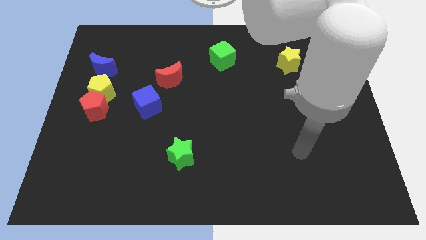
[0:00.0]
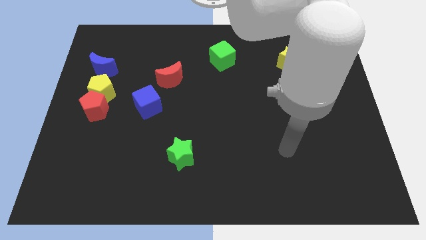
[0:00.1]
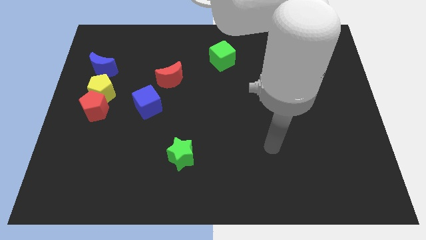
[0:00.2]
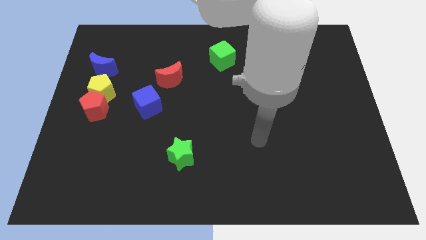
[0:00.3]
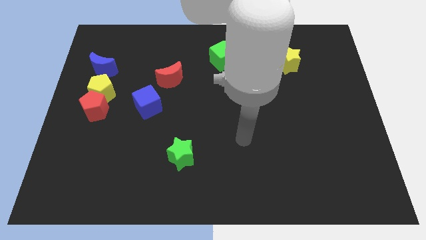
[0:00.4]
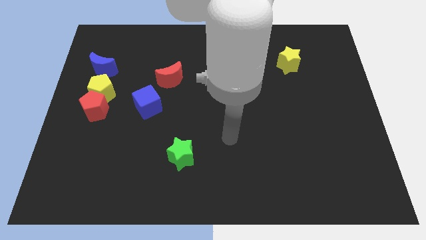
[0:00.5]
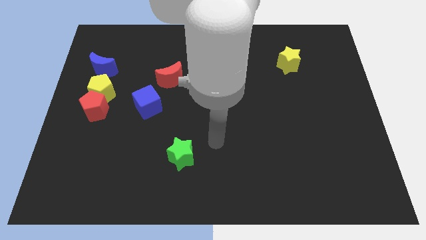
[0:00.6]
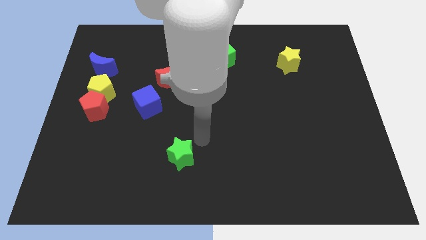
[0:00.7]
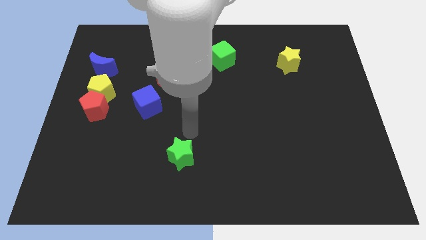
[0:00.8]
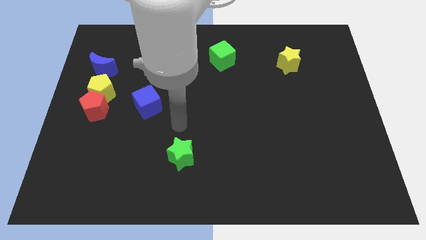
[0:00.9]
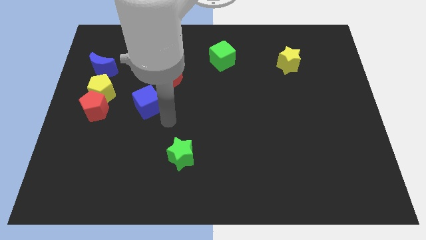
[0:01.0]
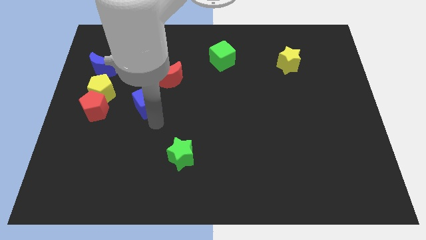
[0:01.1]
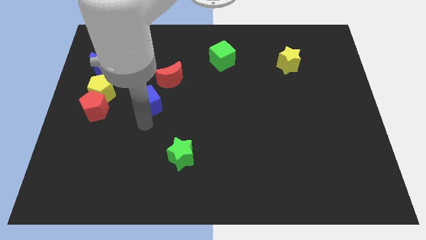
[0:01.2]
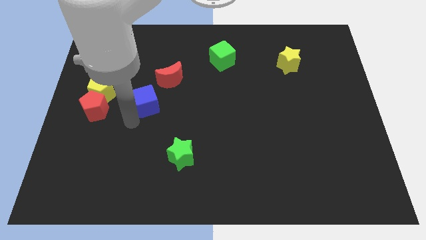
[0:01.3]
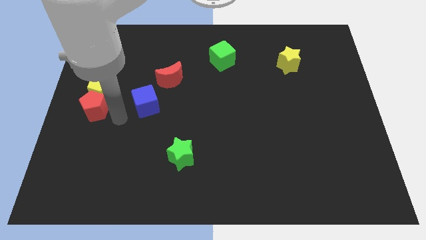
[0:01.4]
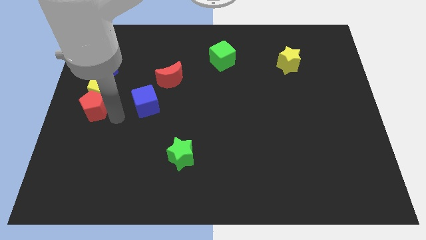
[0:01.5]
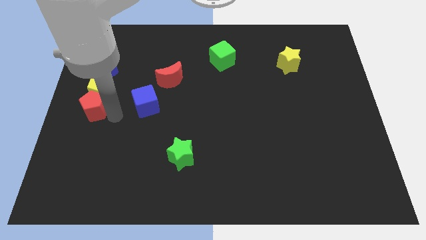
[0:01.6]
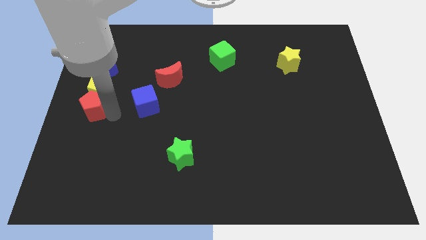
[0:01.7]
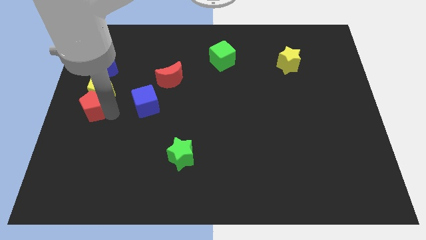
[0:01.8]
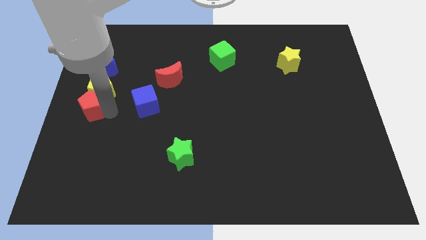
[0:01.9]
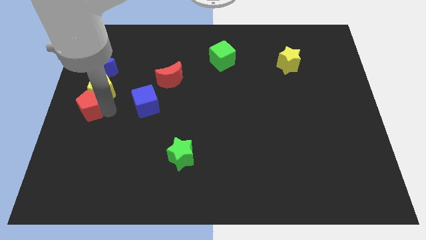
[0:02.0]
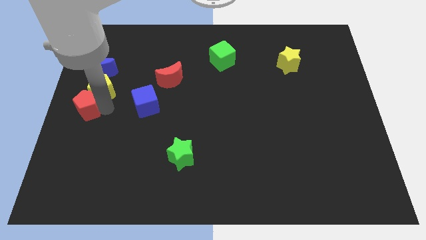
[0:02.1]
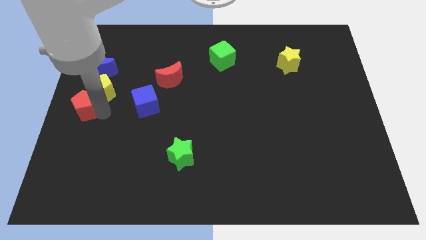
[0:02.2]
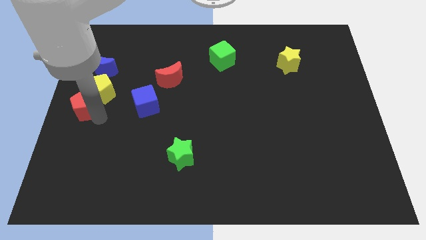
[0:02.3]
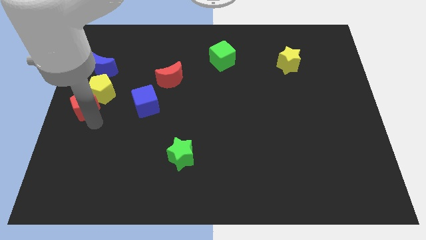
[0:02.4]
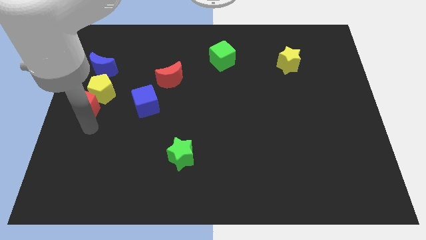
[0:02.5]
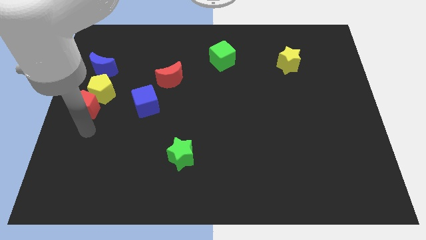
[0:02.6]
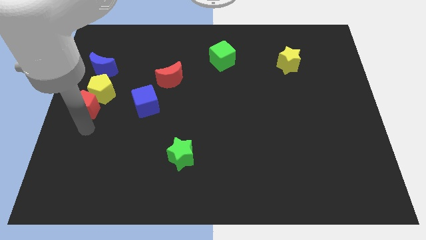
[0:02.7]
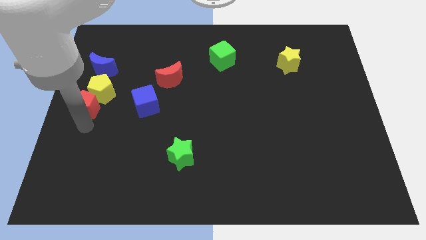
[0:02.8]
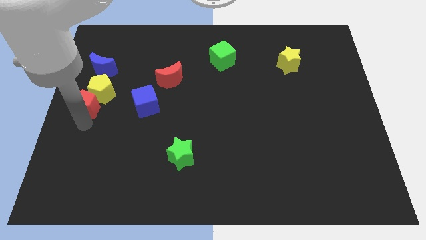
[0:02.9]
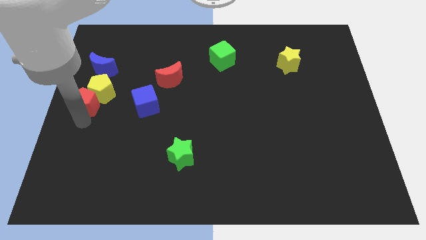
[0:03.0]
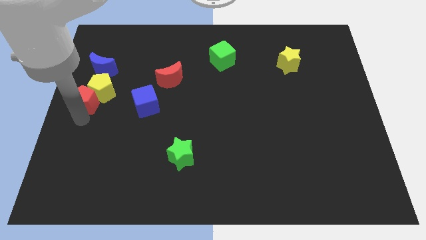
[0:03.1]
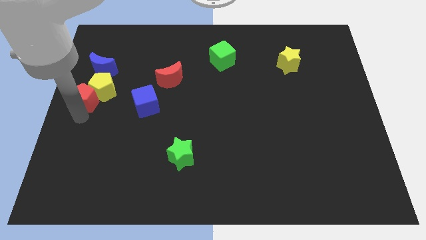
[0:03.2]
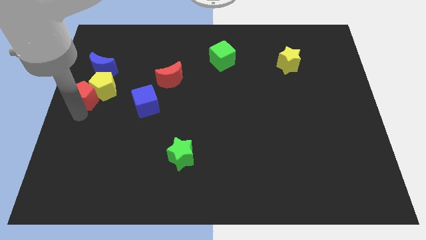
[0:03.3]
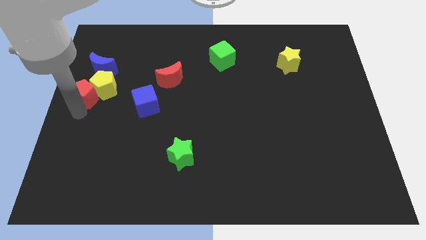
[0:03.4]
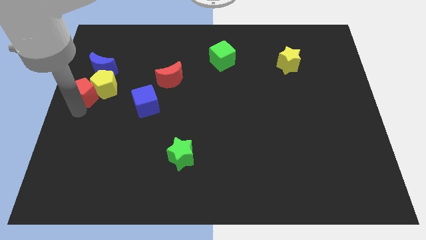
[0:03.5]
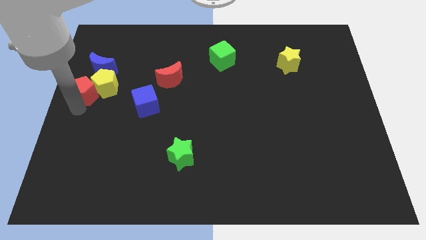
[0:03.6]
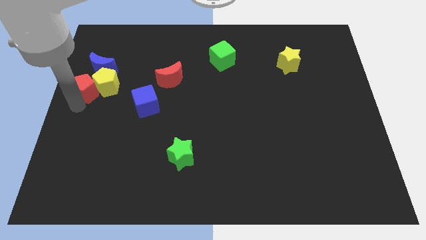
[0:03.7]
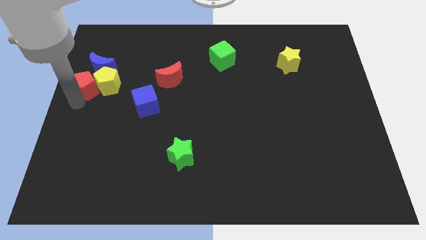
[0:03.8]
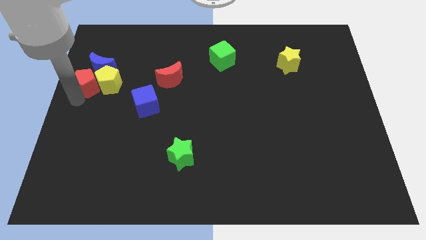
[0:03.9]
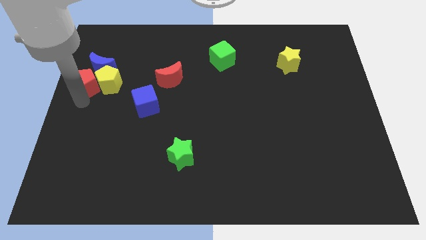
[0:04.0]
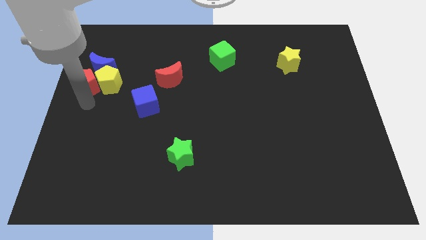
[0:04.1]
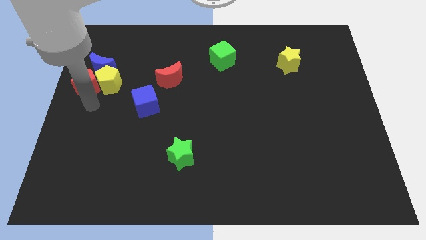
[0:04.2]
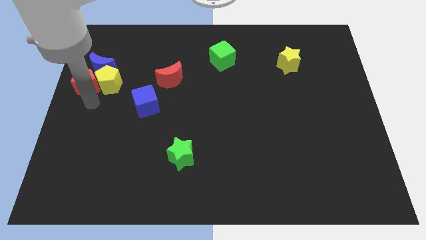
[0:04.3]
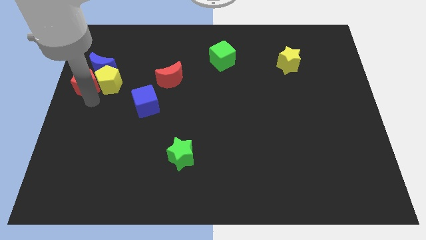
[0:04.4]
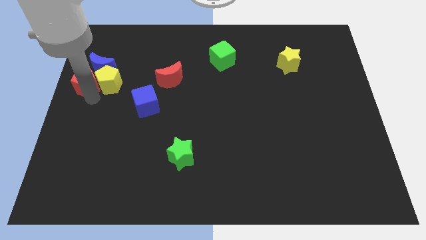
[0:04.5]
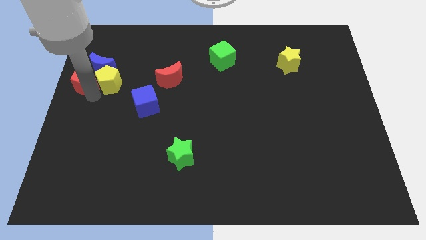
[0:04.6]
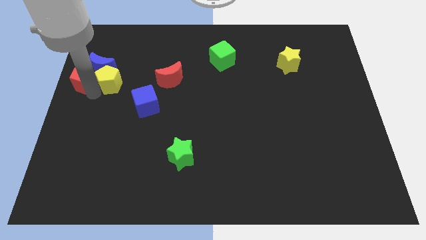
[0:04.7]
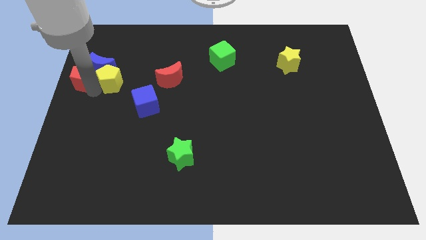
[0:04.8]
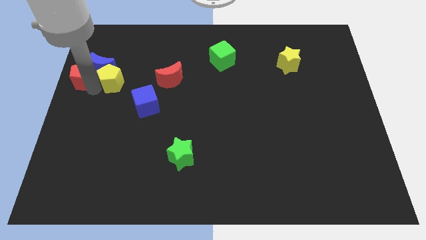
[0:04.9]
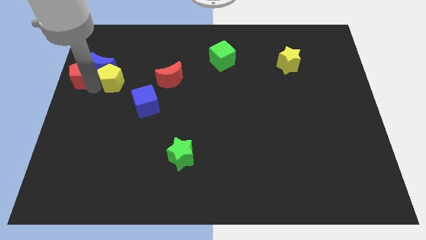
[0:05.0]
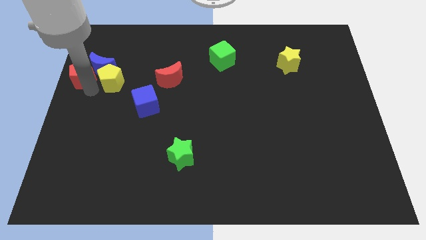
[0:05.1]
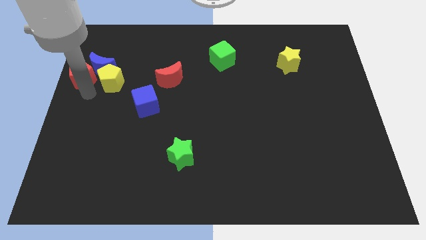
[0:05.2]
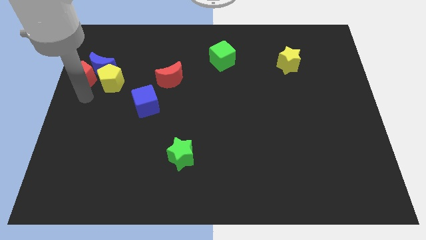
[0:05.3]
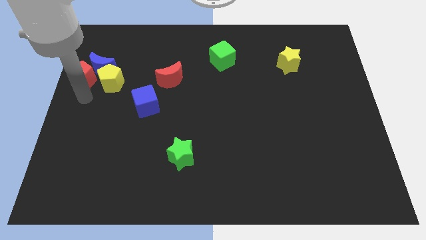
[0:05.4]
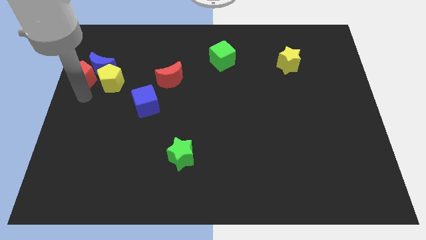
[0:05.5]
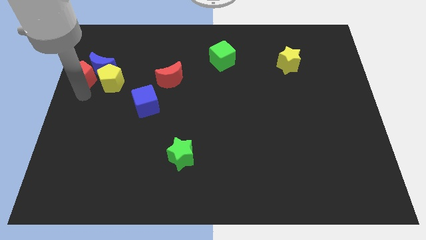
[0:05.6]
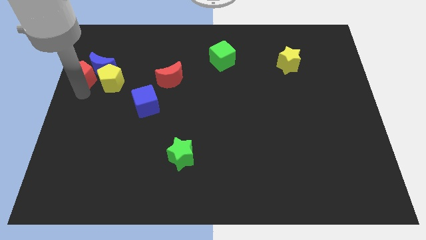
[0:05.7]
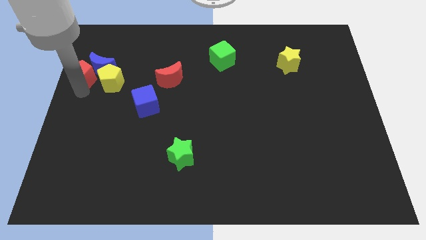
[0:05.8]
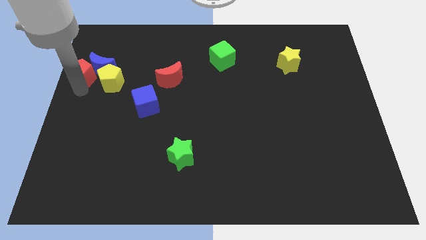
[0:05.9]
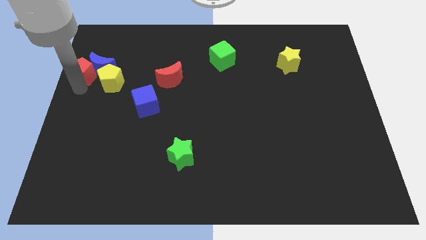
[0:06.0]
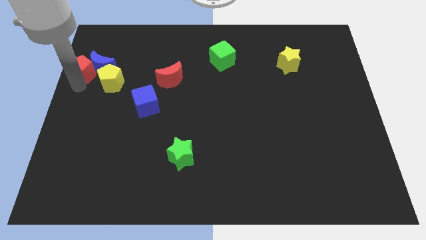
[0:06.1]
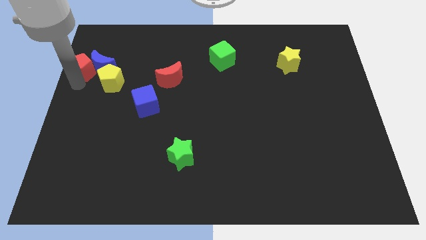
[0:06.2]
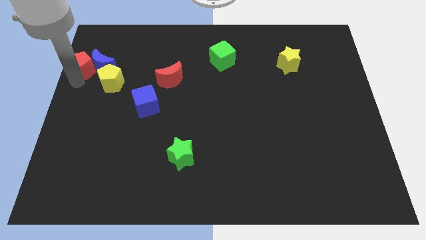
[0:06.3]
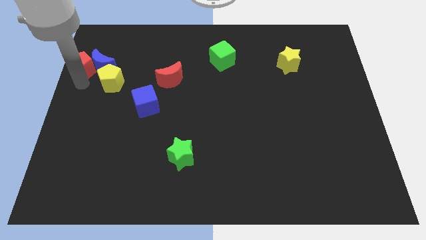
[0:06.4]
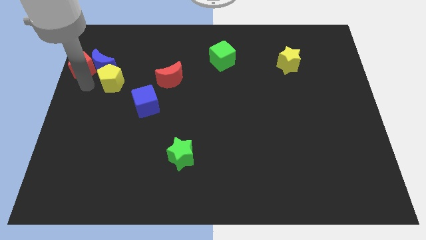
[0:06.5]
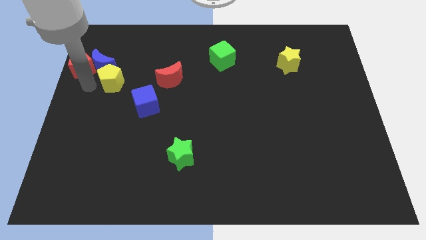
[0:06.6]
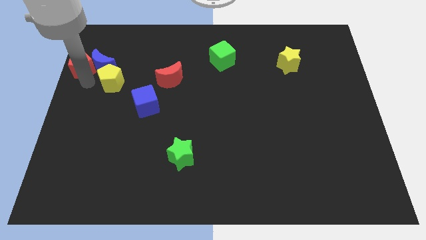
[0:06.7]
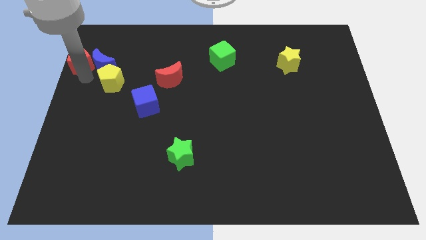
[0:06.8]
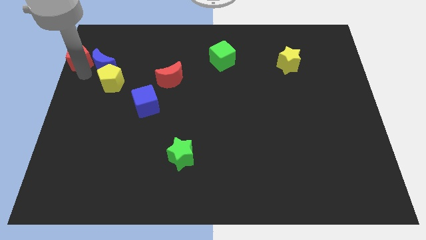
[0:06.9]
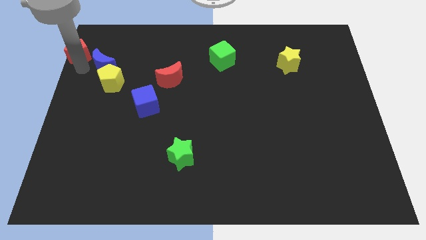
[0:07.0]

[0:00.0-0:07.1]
push the red pentagon to the top left
